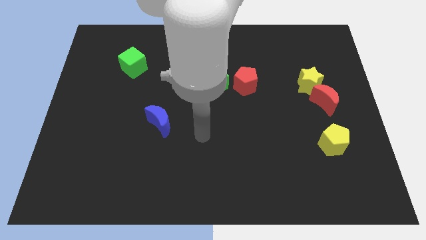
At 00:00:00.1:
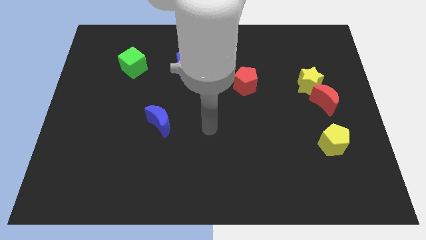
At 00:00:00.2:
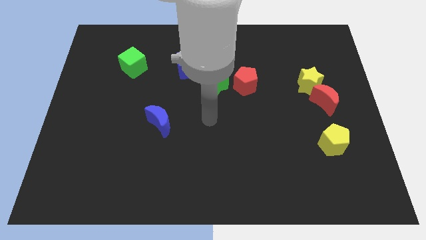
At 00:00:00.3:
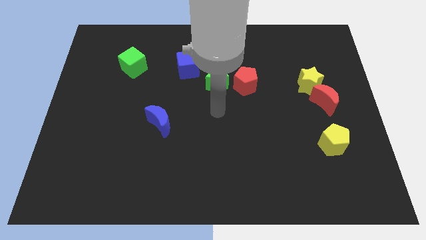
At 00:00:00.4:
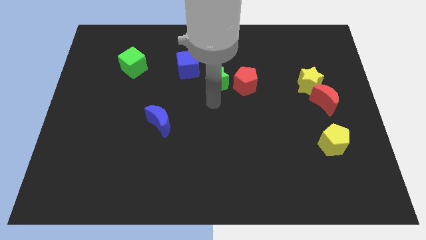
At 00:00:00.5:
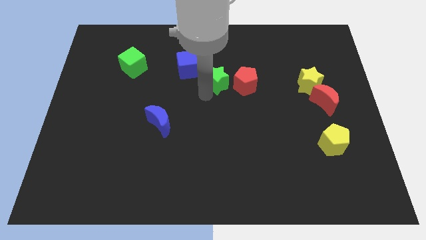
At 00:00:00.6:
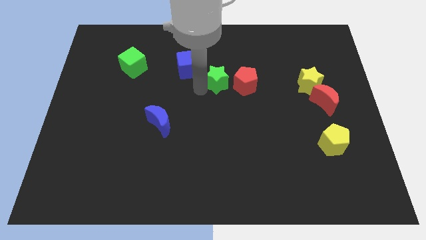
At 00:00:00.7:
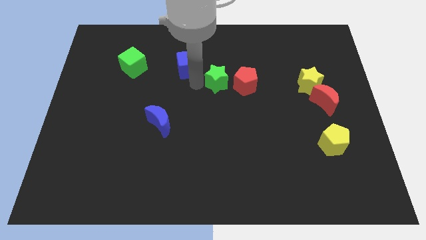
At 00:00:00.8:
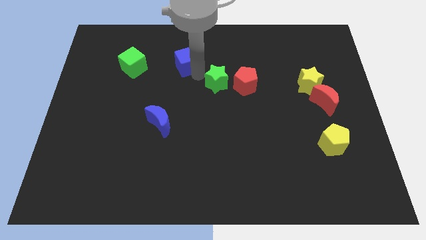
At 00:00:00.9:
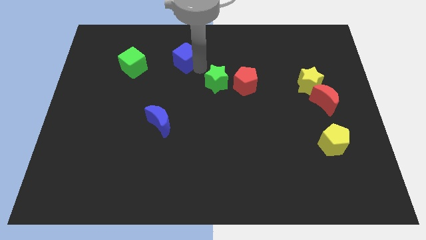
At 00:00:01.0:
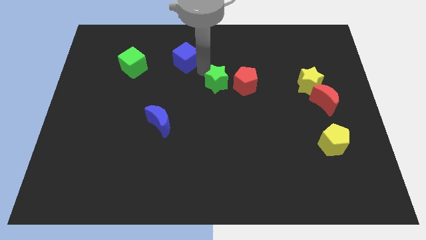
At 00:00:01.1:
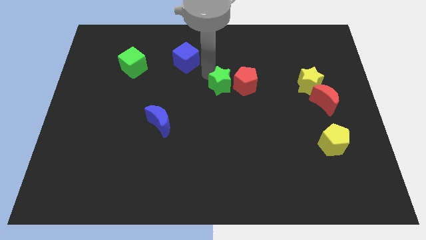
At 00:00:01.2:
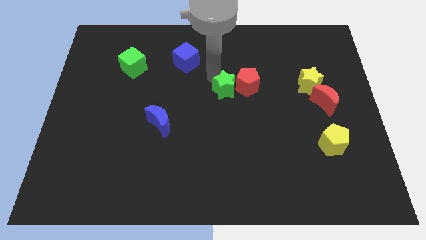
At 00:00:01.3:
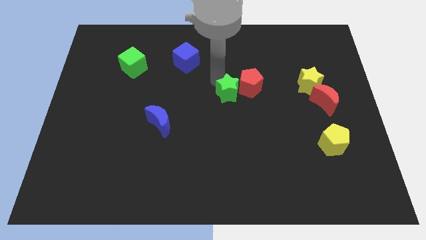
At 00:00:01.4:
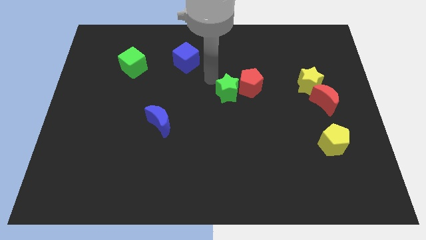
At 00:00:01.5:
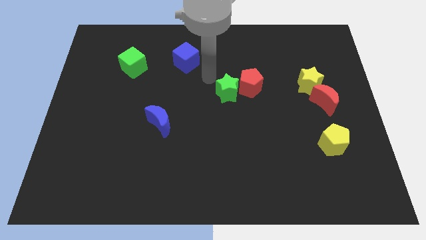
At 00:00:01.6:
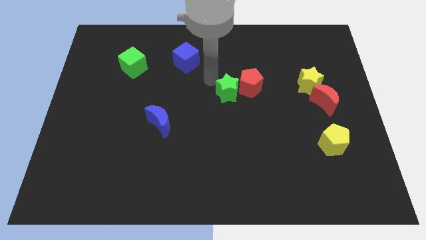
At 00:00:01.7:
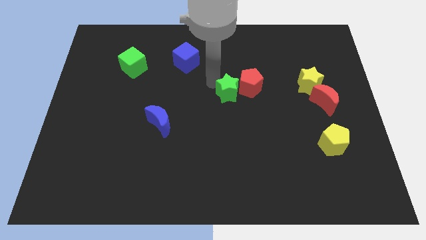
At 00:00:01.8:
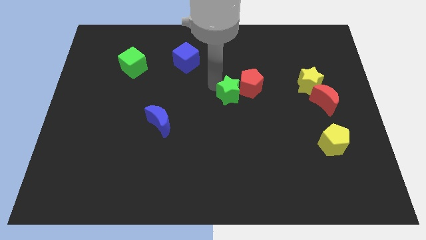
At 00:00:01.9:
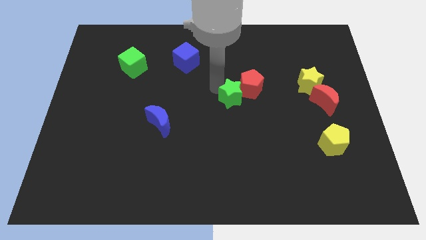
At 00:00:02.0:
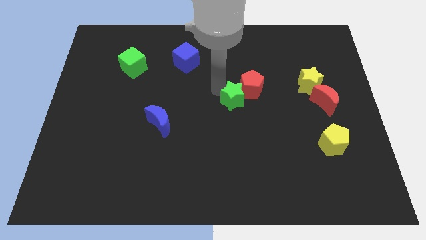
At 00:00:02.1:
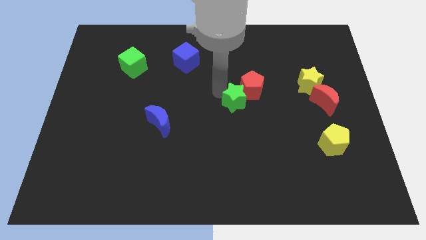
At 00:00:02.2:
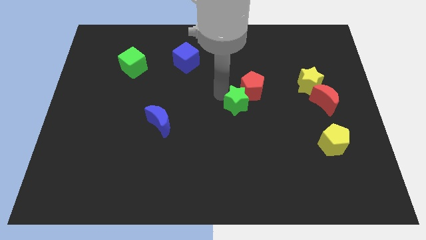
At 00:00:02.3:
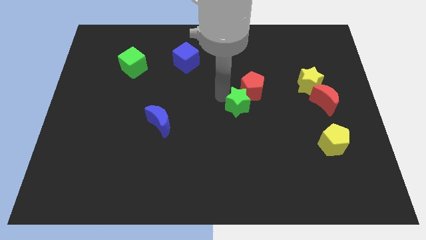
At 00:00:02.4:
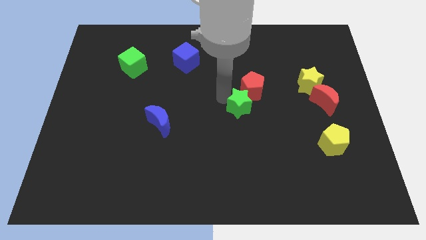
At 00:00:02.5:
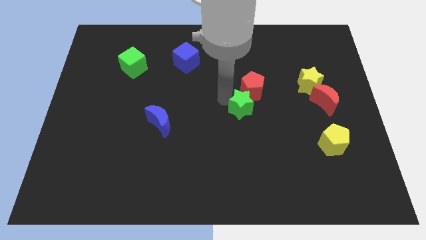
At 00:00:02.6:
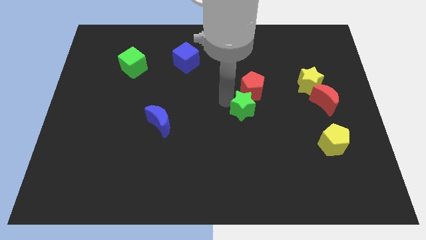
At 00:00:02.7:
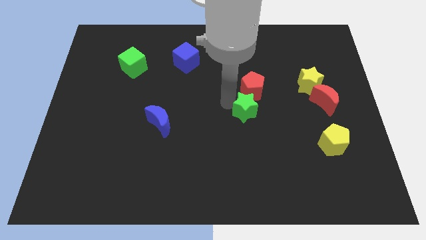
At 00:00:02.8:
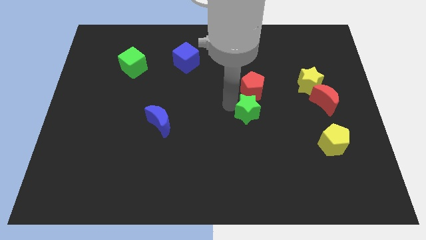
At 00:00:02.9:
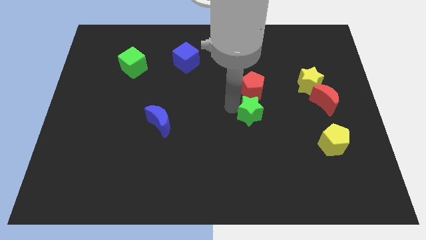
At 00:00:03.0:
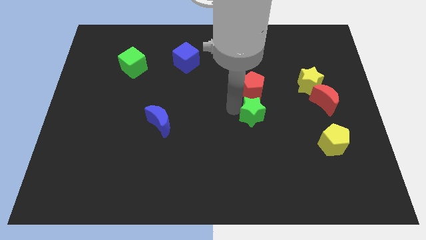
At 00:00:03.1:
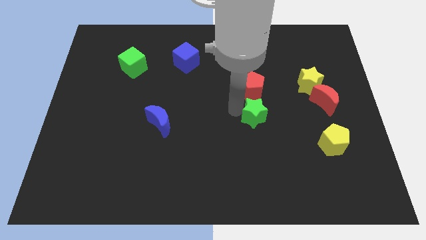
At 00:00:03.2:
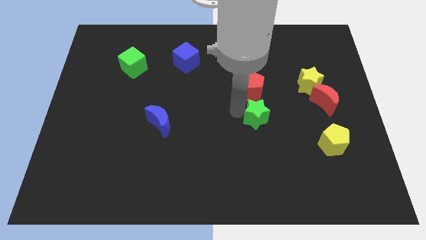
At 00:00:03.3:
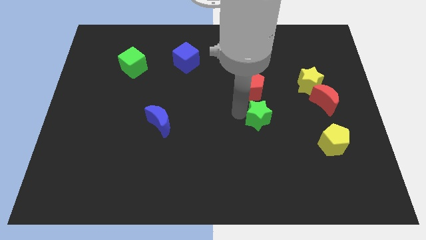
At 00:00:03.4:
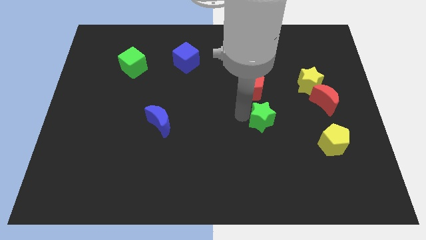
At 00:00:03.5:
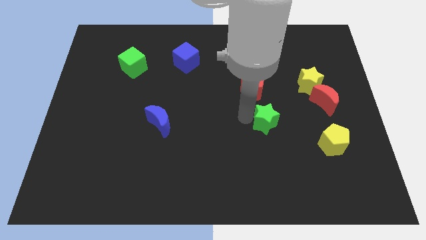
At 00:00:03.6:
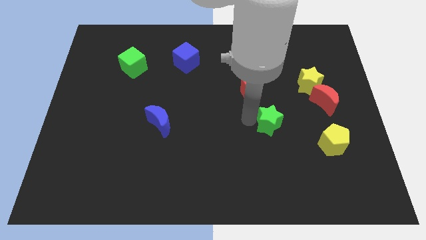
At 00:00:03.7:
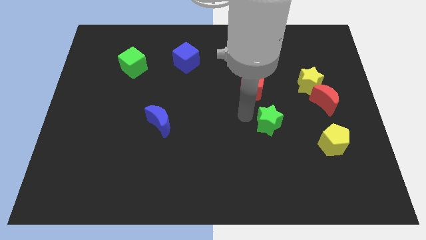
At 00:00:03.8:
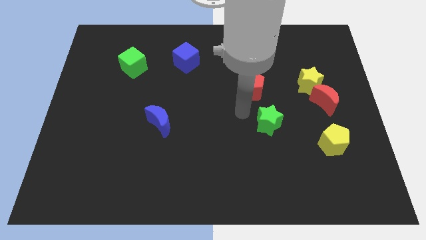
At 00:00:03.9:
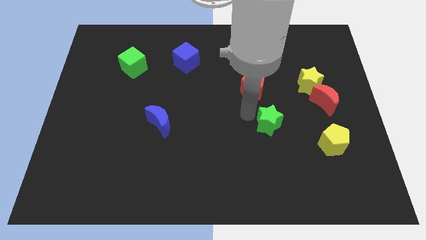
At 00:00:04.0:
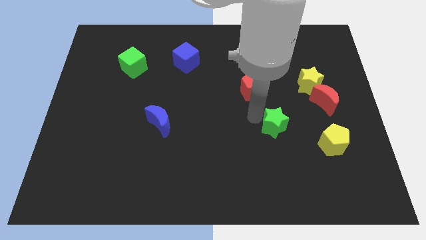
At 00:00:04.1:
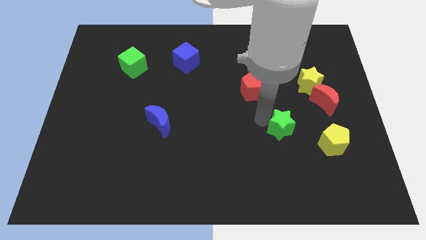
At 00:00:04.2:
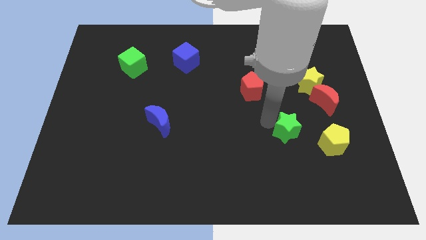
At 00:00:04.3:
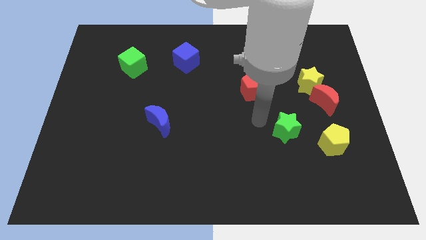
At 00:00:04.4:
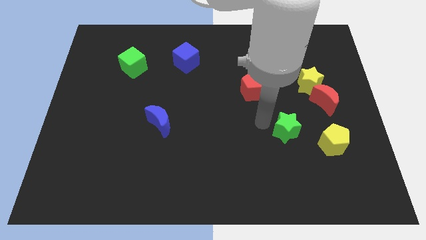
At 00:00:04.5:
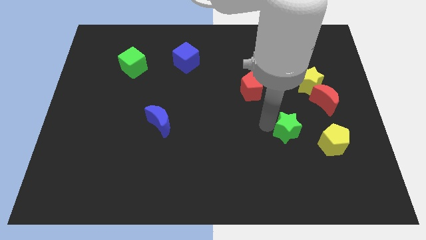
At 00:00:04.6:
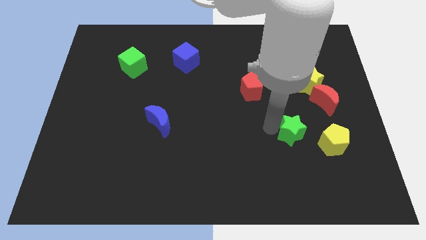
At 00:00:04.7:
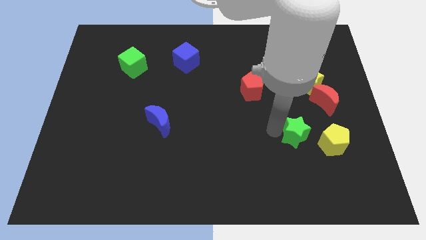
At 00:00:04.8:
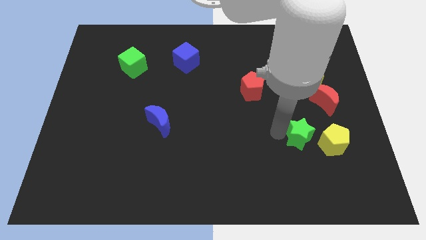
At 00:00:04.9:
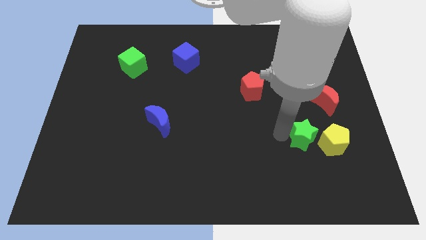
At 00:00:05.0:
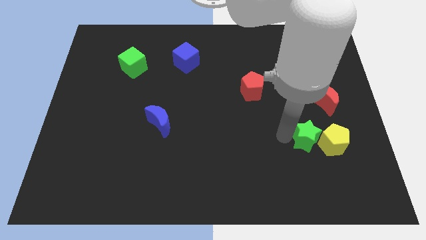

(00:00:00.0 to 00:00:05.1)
push the green star close to the yellow pentagon

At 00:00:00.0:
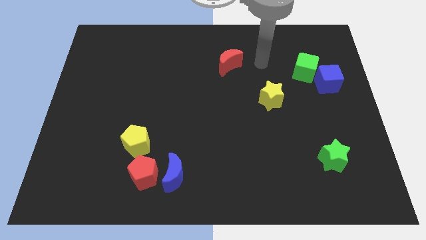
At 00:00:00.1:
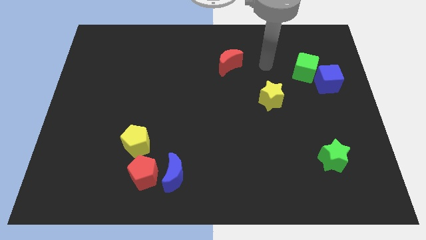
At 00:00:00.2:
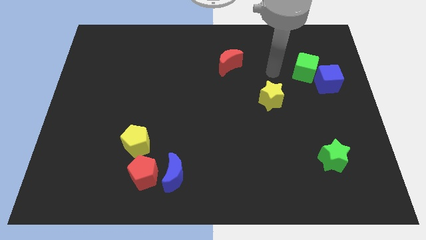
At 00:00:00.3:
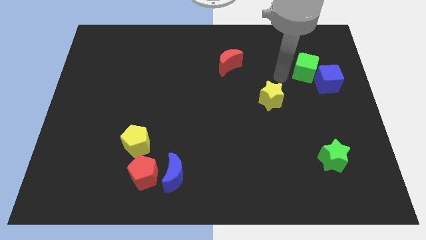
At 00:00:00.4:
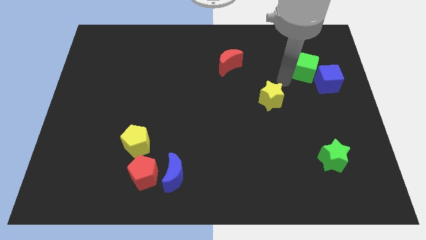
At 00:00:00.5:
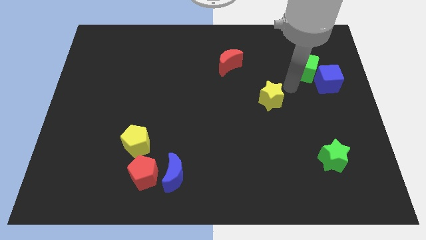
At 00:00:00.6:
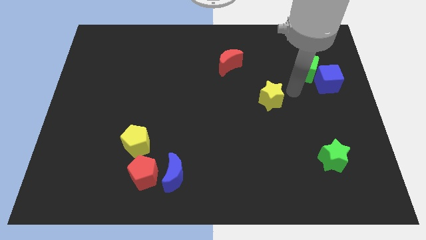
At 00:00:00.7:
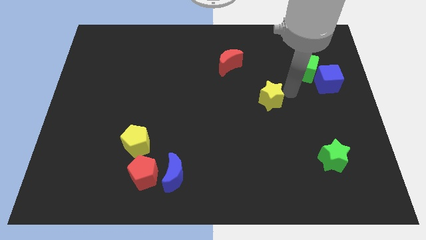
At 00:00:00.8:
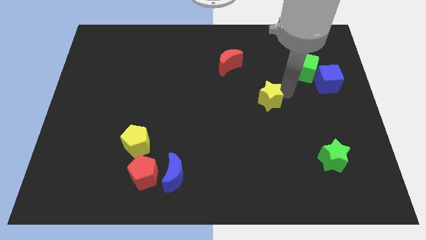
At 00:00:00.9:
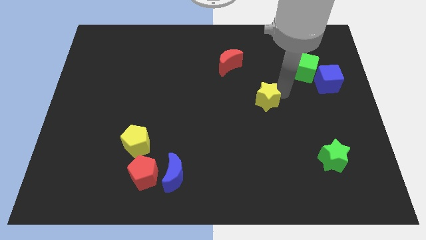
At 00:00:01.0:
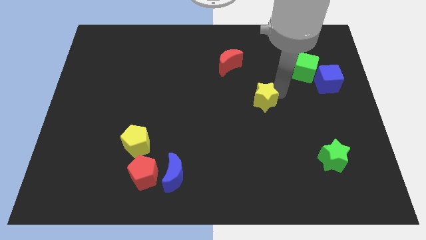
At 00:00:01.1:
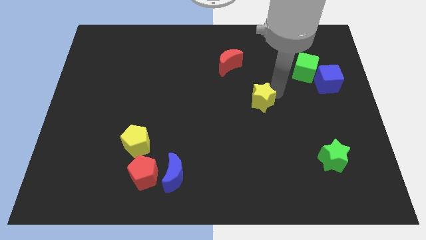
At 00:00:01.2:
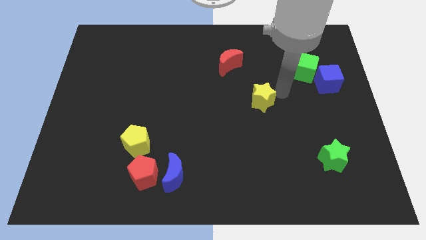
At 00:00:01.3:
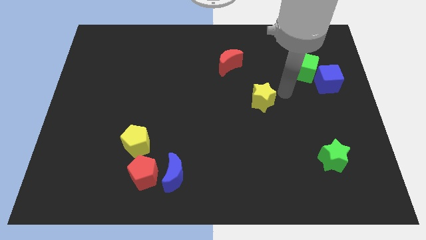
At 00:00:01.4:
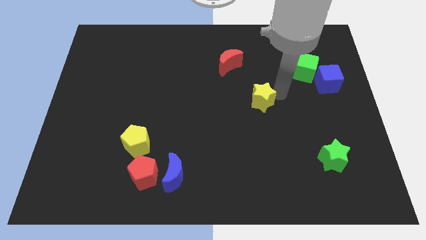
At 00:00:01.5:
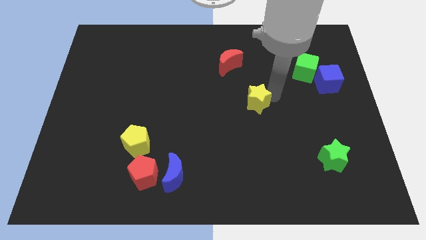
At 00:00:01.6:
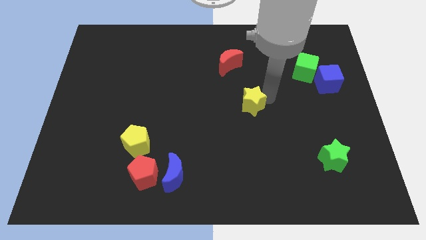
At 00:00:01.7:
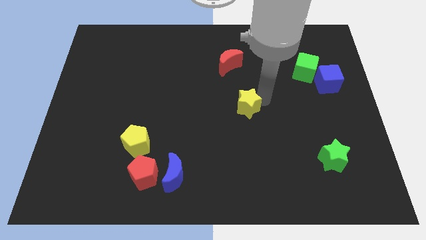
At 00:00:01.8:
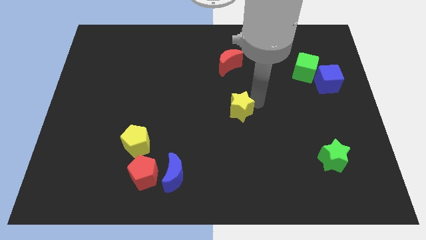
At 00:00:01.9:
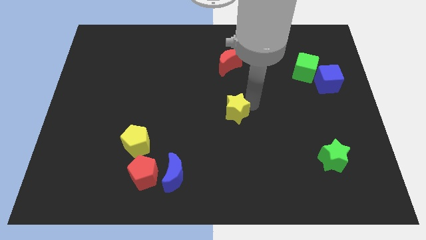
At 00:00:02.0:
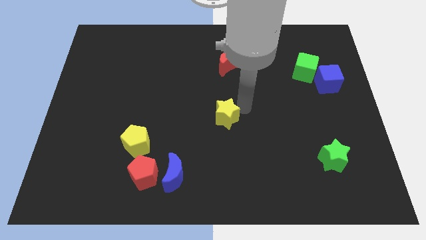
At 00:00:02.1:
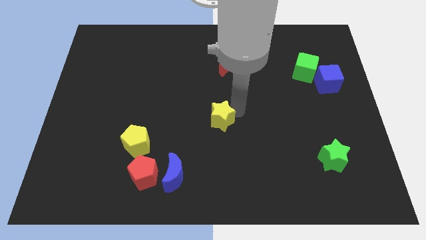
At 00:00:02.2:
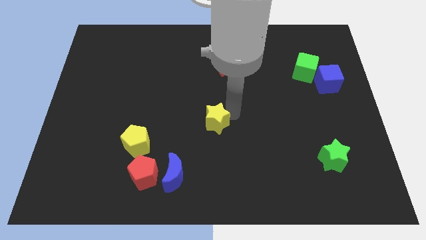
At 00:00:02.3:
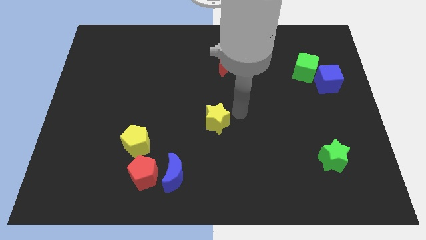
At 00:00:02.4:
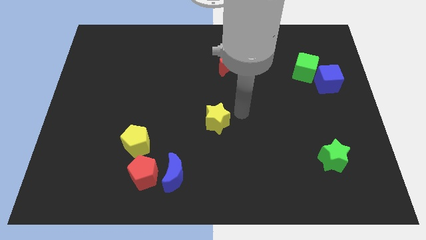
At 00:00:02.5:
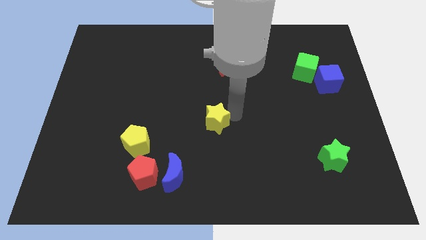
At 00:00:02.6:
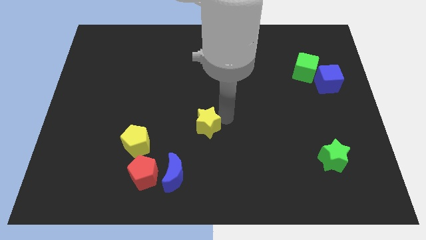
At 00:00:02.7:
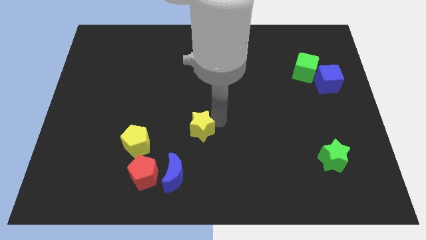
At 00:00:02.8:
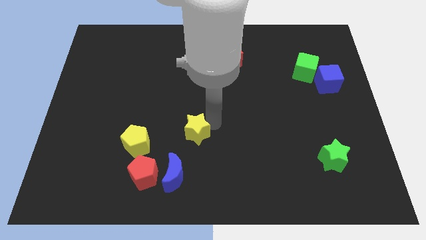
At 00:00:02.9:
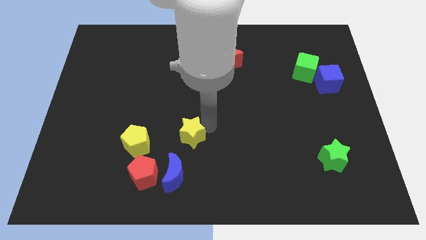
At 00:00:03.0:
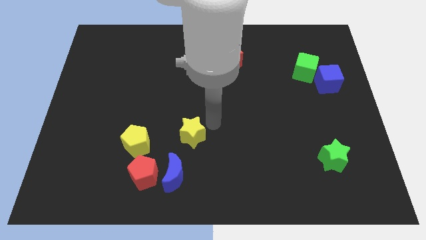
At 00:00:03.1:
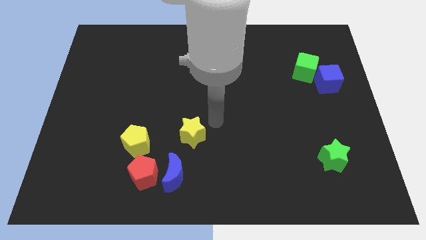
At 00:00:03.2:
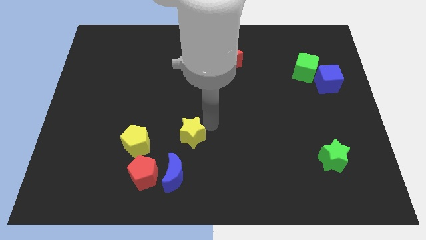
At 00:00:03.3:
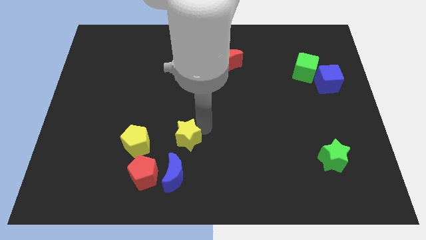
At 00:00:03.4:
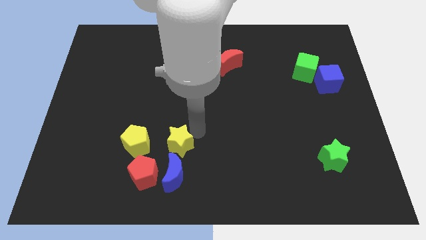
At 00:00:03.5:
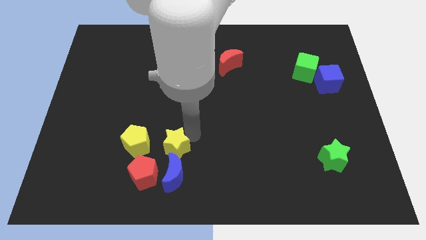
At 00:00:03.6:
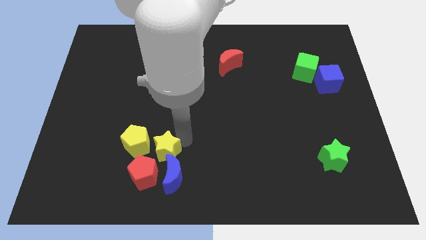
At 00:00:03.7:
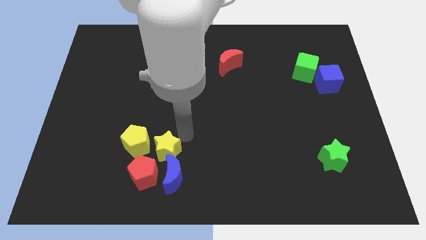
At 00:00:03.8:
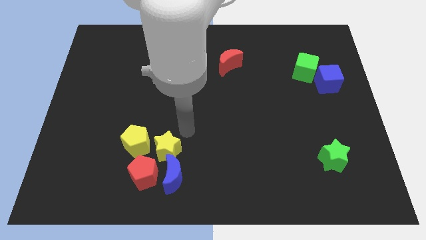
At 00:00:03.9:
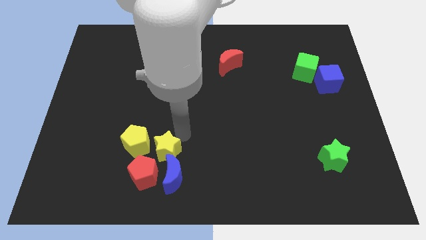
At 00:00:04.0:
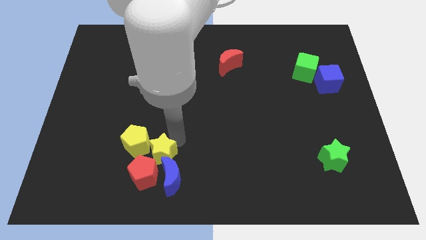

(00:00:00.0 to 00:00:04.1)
move the yellow star close to the red pentagon
